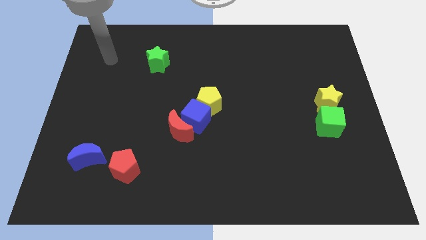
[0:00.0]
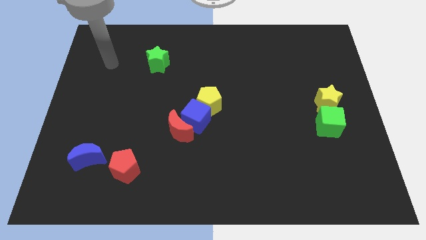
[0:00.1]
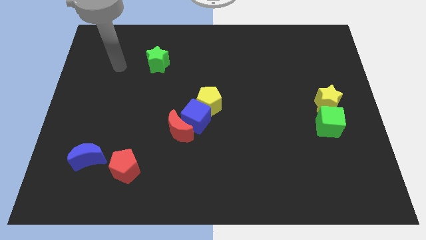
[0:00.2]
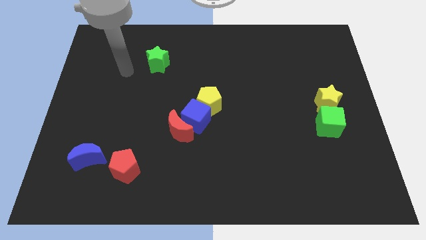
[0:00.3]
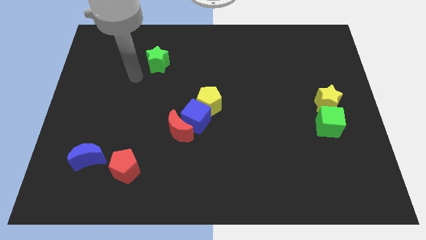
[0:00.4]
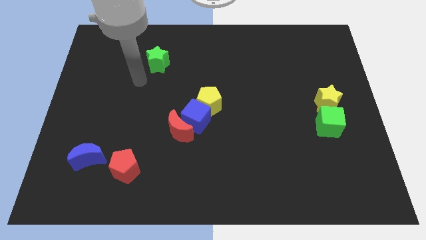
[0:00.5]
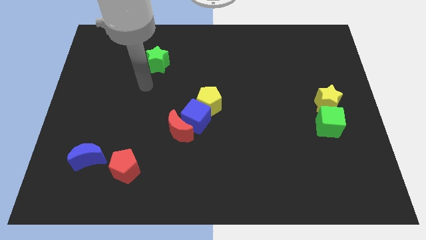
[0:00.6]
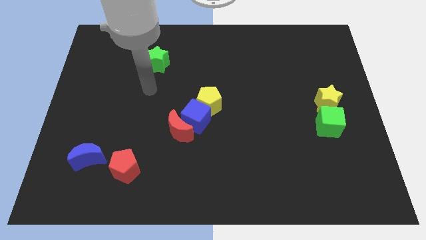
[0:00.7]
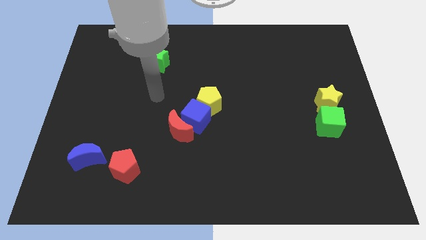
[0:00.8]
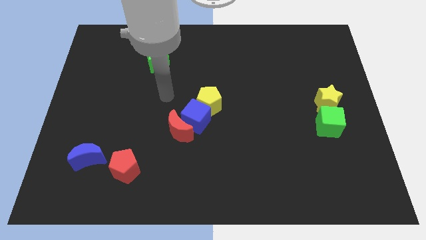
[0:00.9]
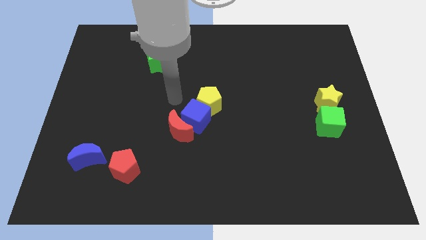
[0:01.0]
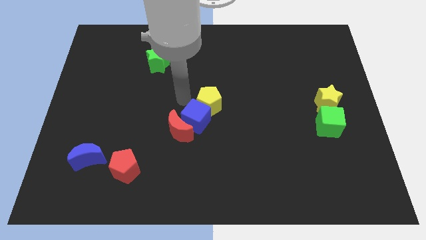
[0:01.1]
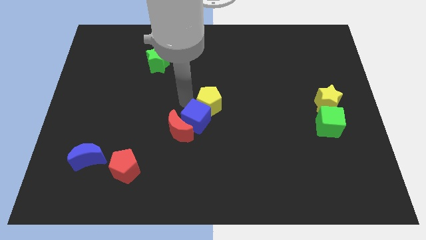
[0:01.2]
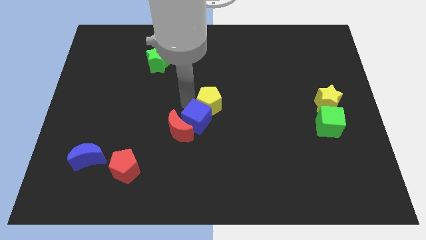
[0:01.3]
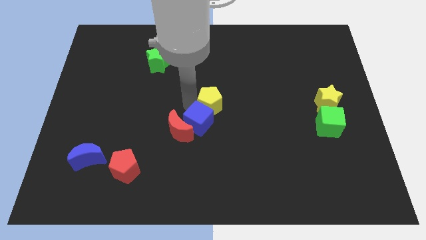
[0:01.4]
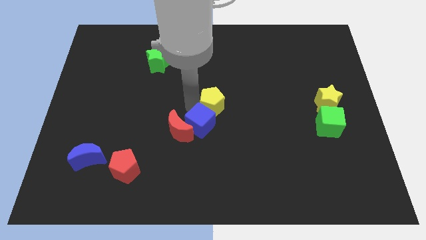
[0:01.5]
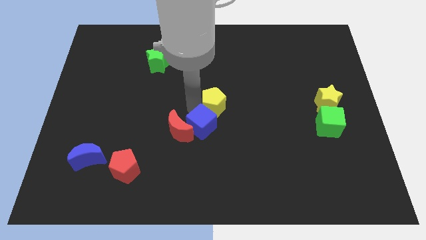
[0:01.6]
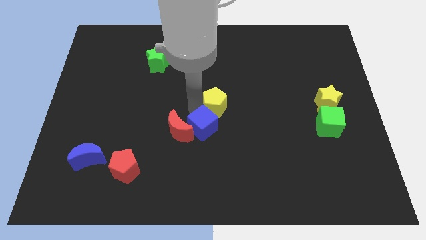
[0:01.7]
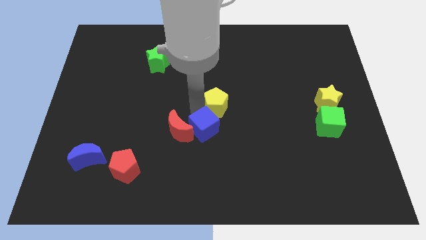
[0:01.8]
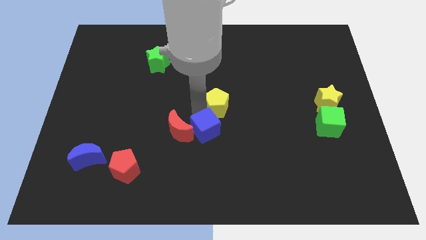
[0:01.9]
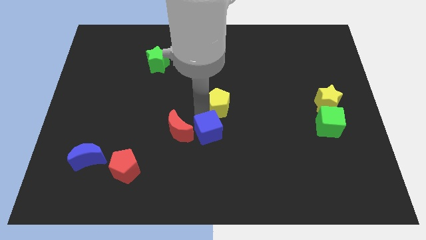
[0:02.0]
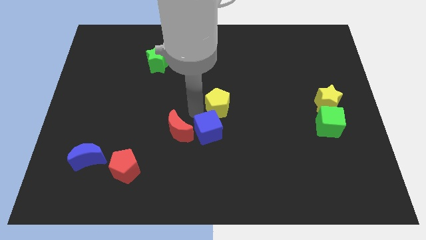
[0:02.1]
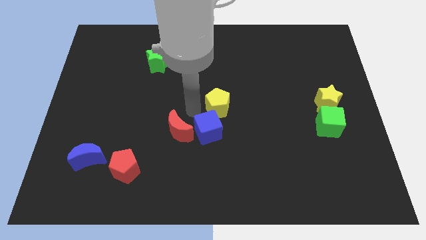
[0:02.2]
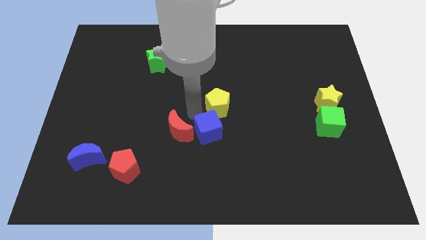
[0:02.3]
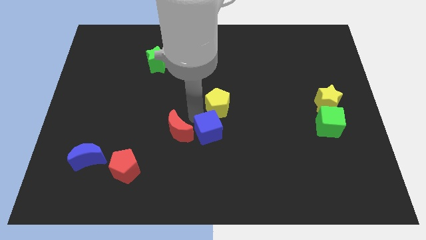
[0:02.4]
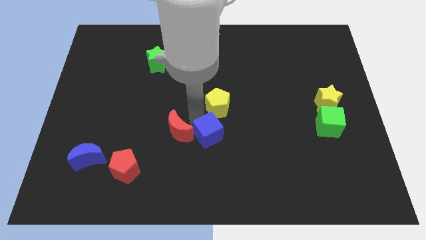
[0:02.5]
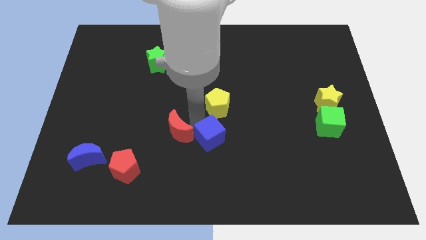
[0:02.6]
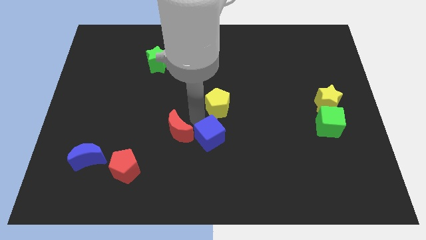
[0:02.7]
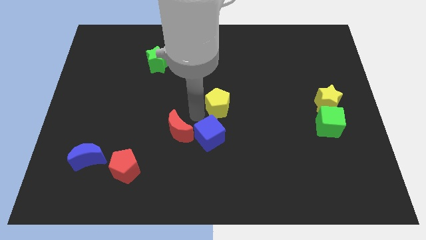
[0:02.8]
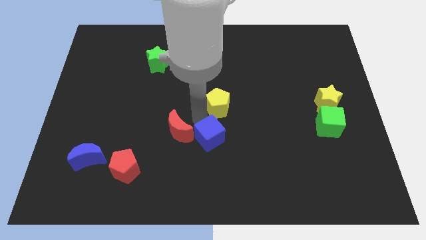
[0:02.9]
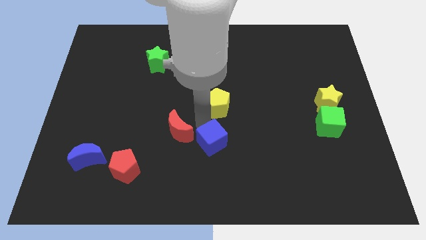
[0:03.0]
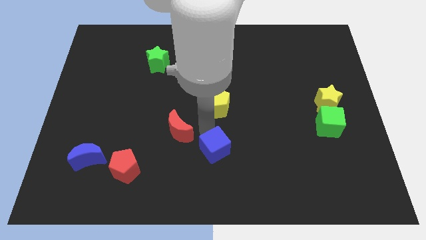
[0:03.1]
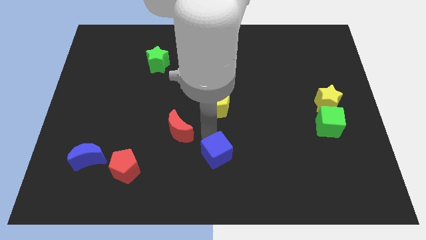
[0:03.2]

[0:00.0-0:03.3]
separate the blue cube from the red moon and yellow pentagon

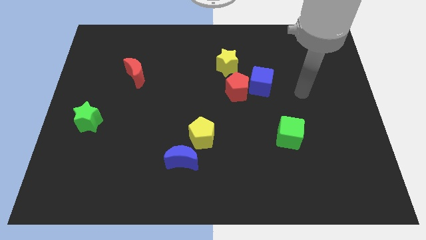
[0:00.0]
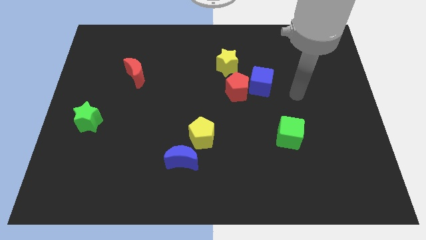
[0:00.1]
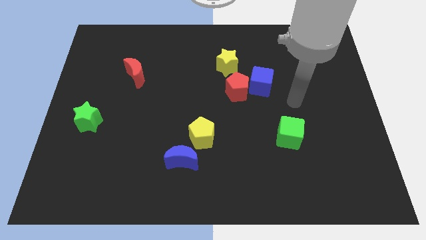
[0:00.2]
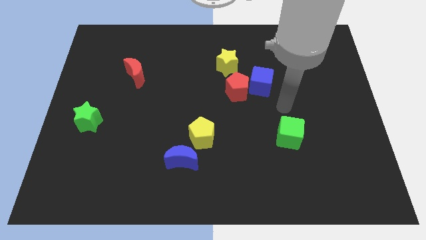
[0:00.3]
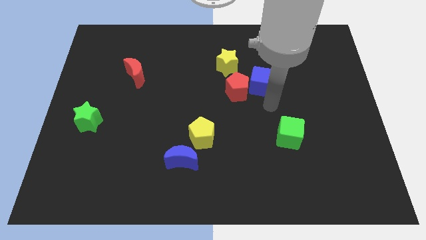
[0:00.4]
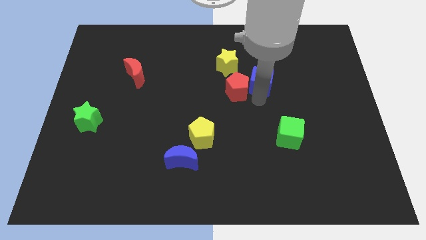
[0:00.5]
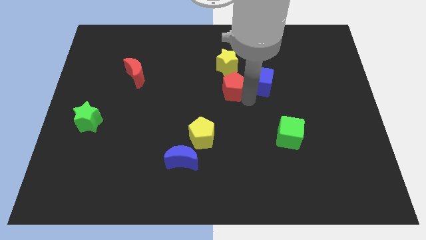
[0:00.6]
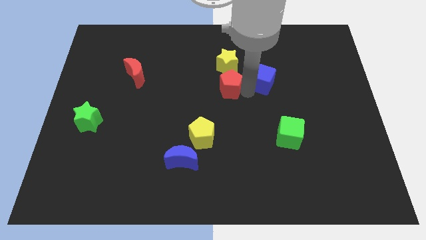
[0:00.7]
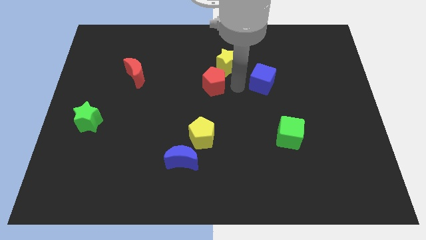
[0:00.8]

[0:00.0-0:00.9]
separate the blue cube from the red pentagon

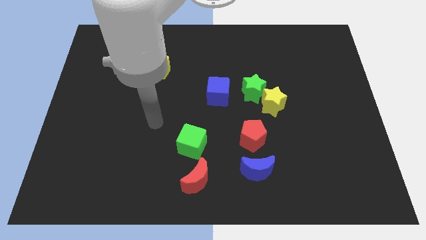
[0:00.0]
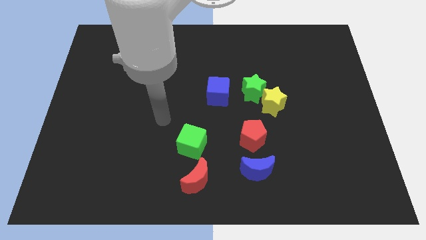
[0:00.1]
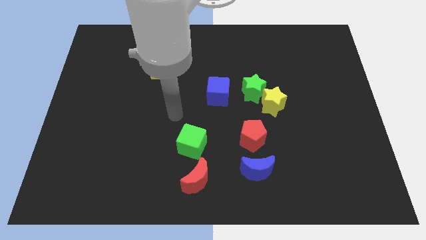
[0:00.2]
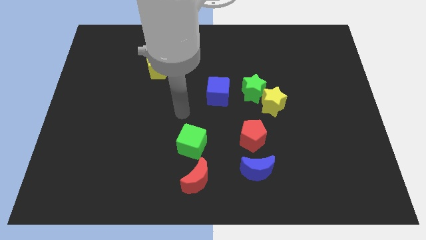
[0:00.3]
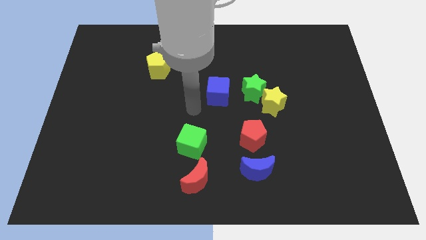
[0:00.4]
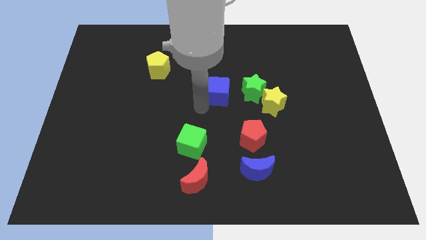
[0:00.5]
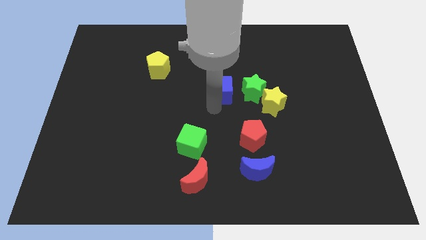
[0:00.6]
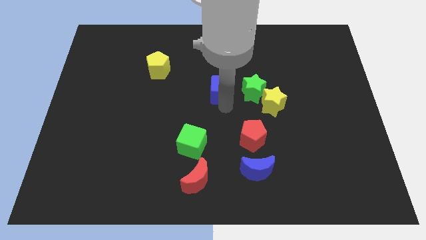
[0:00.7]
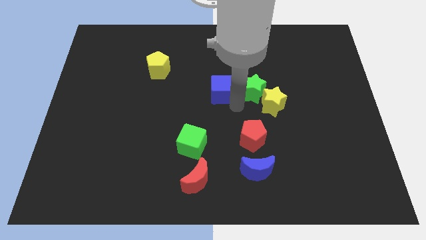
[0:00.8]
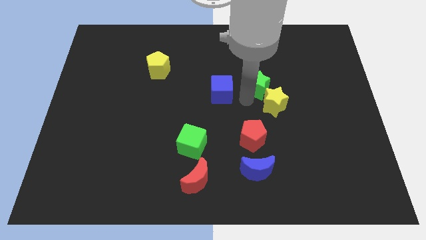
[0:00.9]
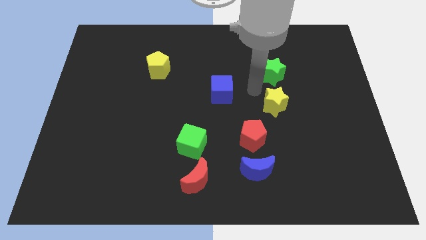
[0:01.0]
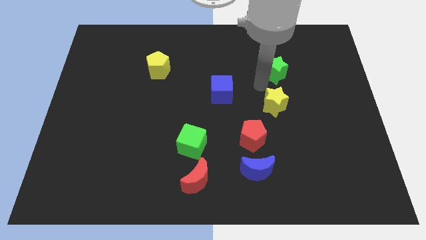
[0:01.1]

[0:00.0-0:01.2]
separate the yellow star from the green star

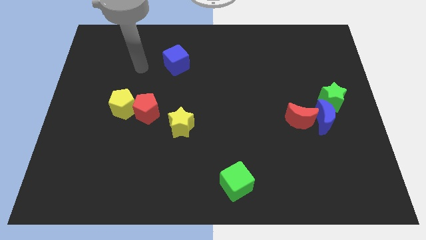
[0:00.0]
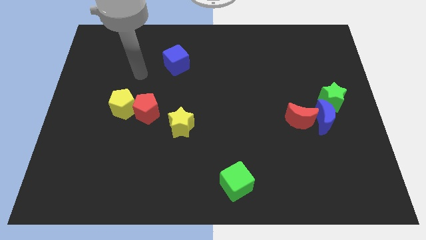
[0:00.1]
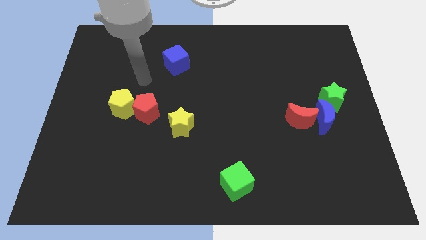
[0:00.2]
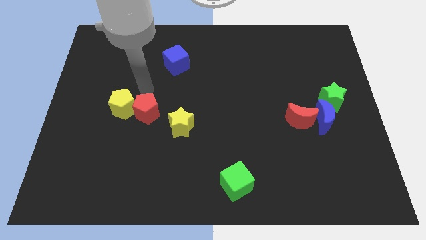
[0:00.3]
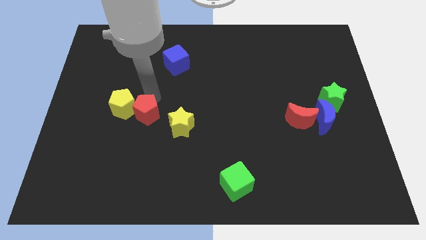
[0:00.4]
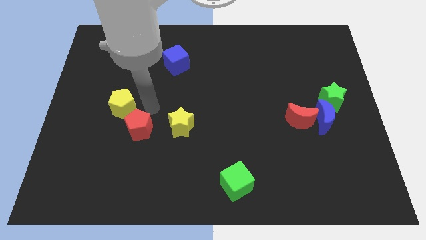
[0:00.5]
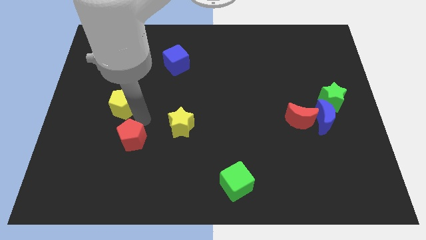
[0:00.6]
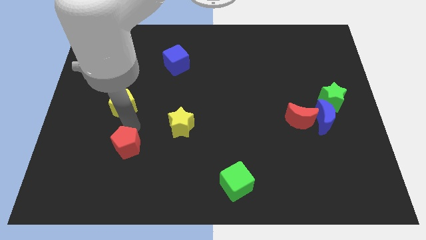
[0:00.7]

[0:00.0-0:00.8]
pull the yellow pentagon apart from the red pentagon

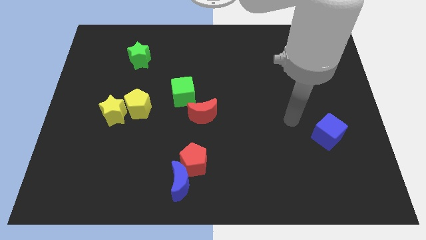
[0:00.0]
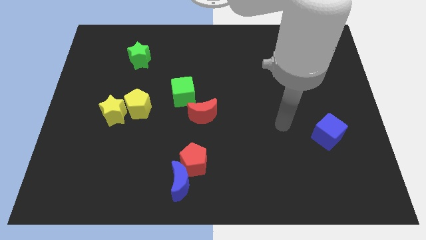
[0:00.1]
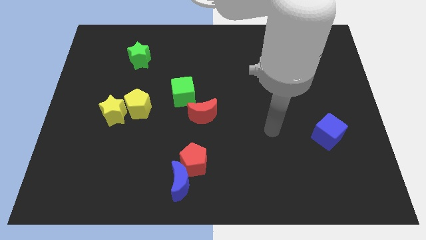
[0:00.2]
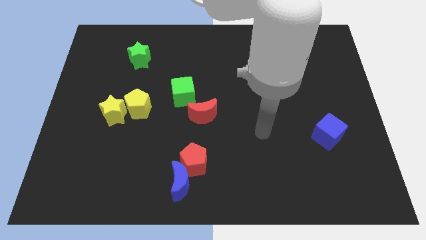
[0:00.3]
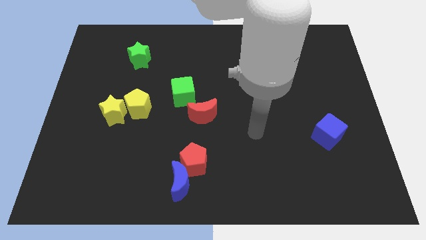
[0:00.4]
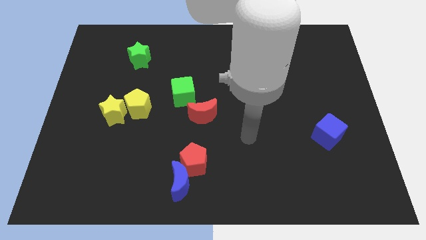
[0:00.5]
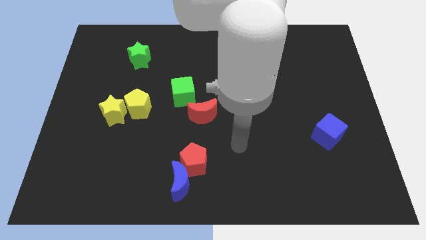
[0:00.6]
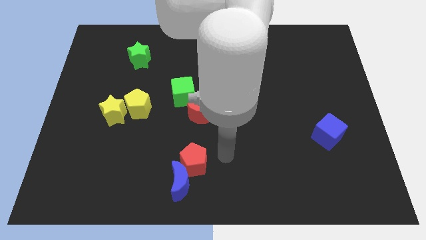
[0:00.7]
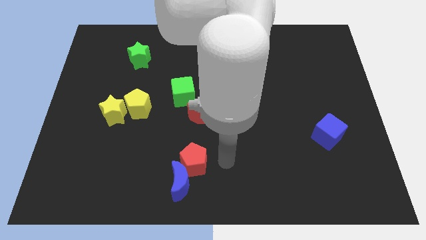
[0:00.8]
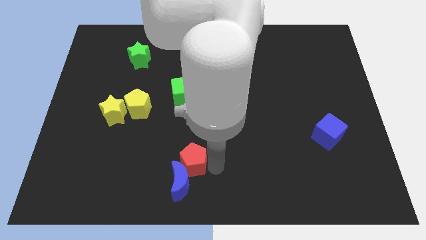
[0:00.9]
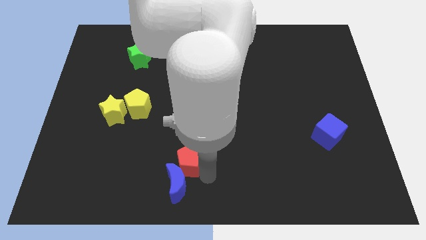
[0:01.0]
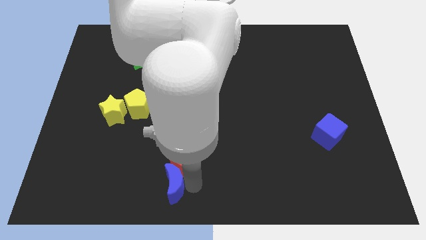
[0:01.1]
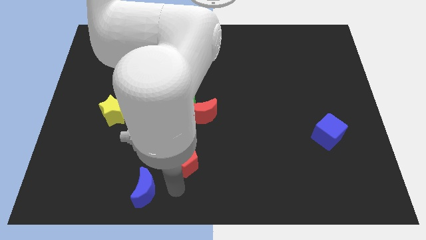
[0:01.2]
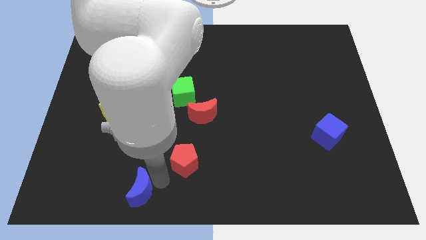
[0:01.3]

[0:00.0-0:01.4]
pull the red pentagon apart from the blue moon

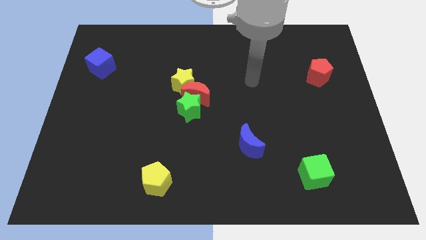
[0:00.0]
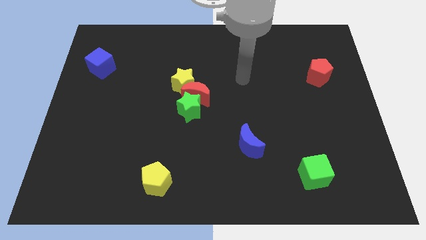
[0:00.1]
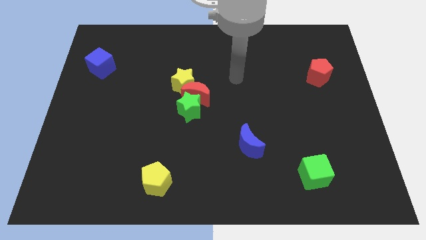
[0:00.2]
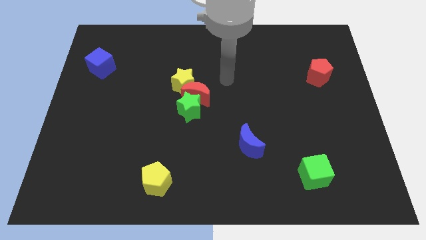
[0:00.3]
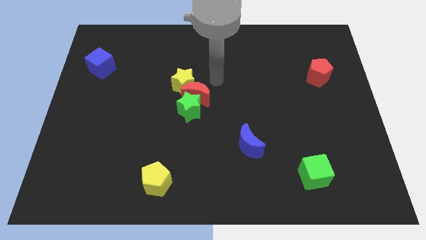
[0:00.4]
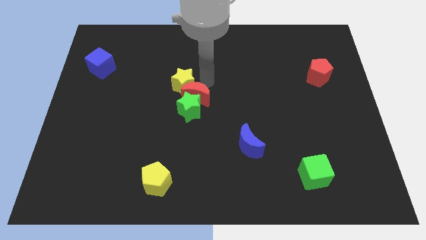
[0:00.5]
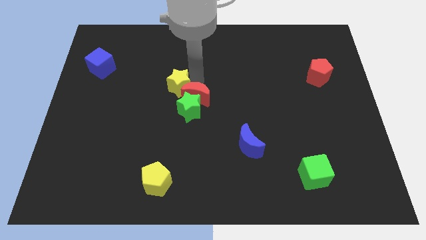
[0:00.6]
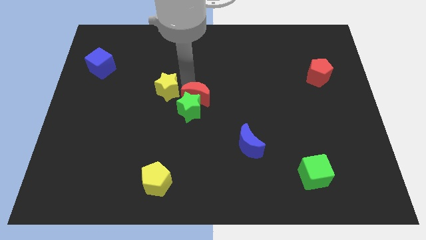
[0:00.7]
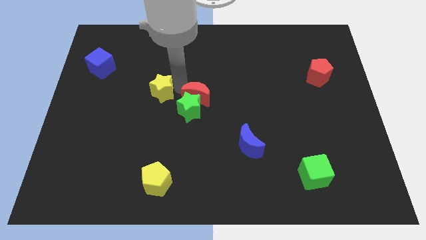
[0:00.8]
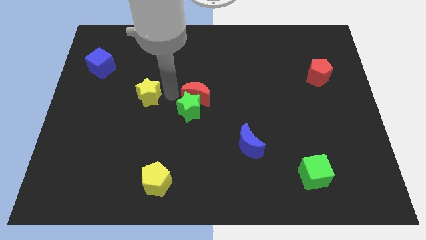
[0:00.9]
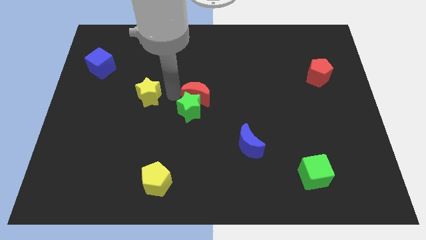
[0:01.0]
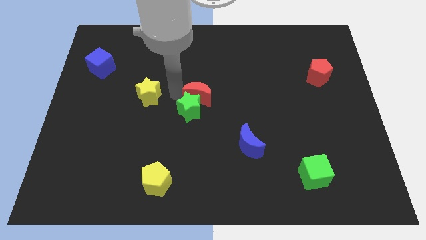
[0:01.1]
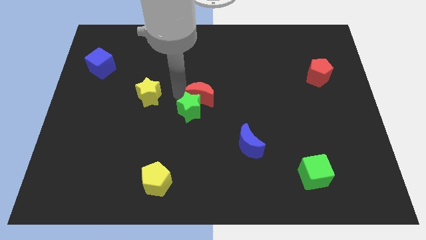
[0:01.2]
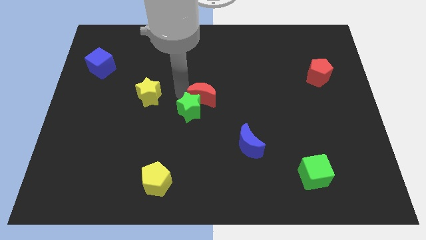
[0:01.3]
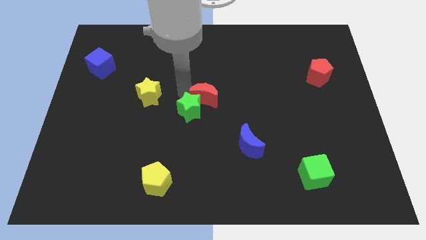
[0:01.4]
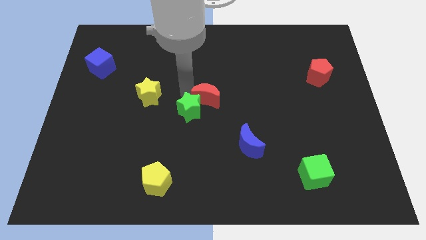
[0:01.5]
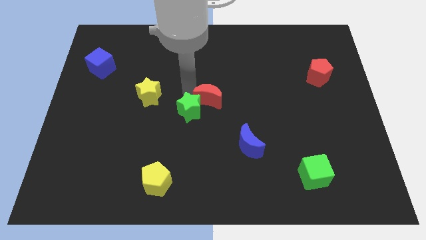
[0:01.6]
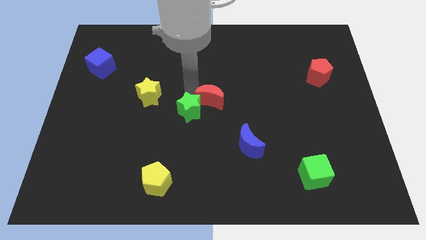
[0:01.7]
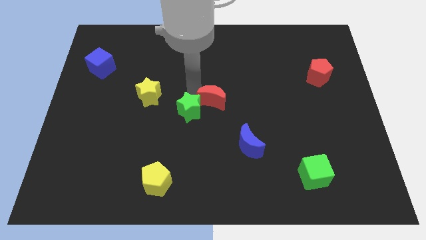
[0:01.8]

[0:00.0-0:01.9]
pull the red moon apart from the green star and yellow star
